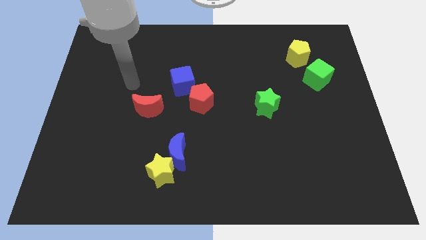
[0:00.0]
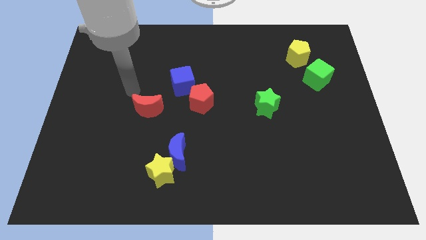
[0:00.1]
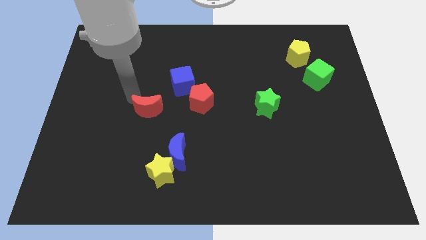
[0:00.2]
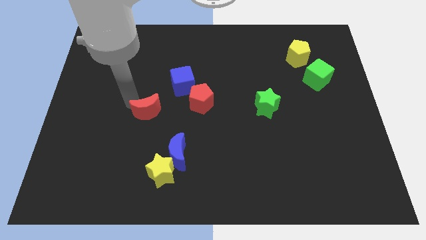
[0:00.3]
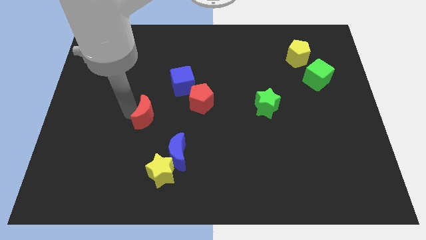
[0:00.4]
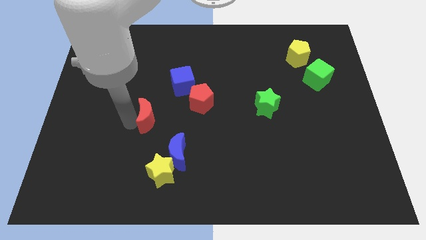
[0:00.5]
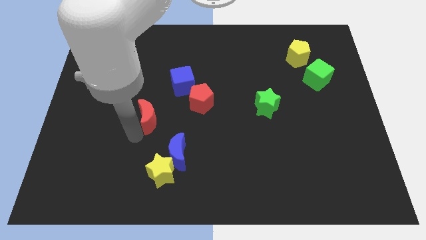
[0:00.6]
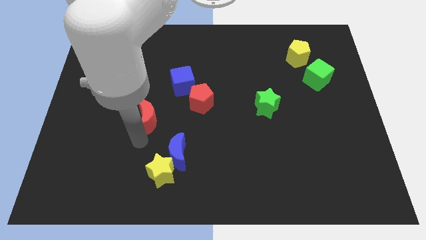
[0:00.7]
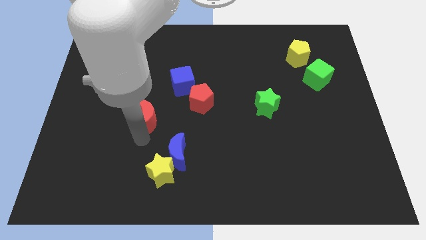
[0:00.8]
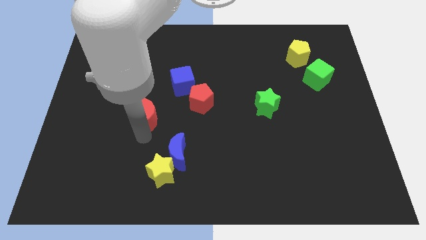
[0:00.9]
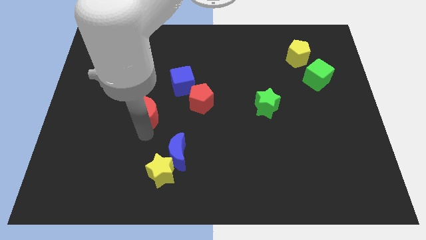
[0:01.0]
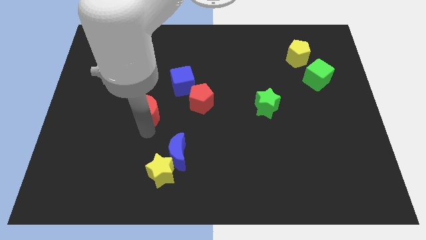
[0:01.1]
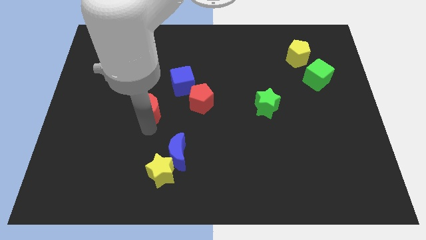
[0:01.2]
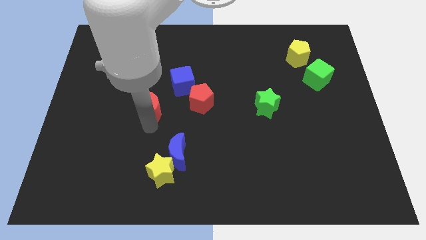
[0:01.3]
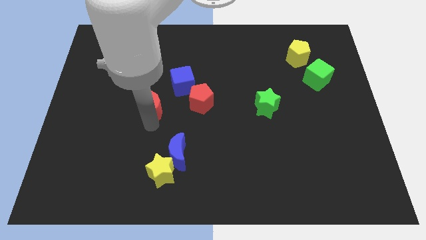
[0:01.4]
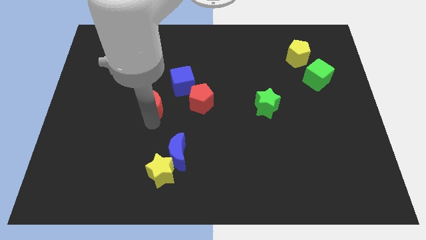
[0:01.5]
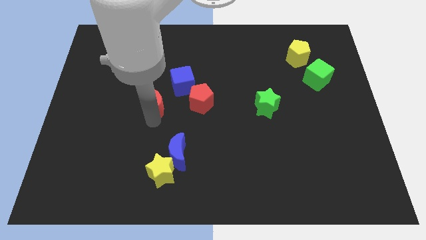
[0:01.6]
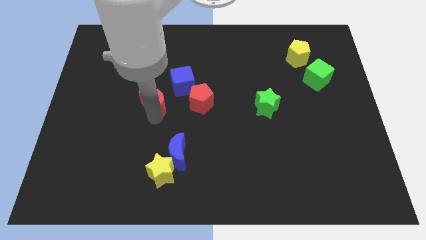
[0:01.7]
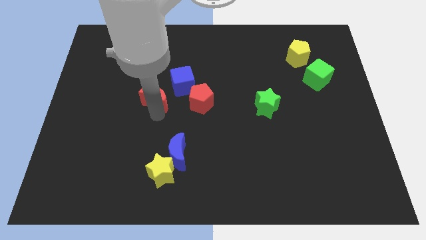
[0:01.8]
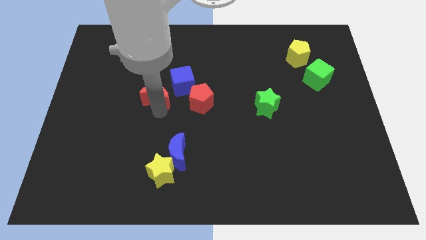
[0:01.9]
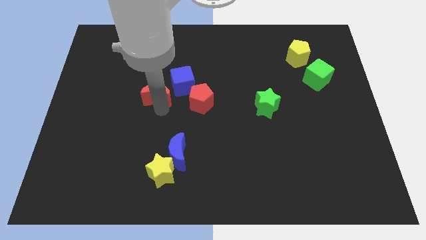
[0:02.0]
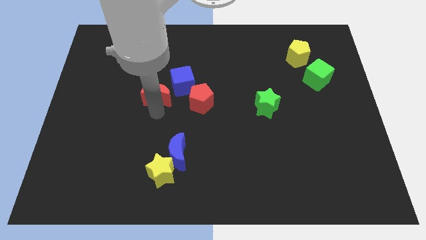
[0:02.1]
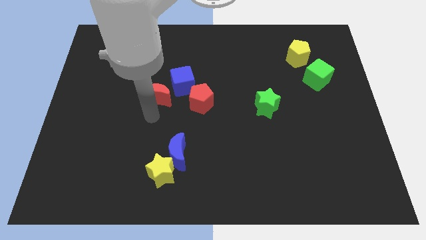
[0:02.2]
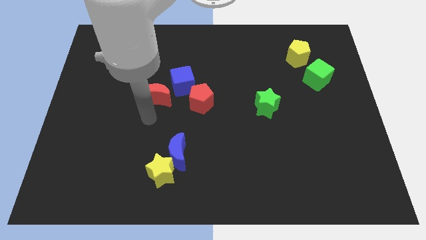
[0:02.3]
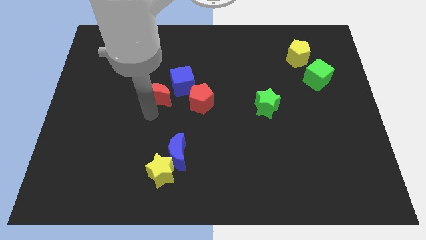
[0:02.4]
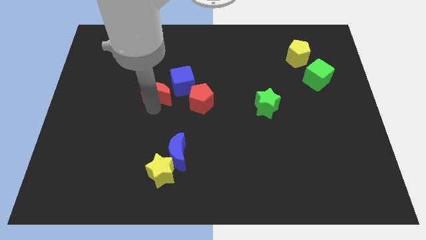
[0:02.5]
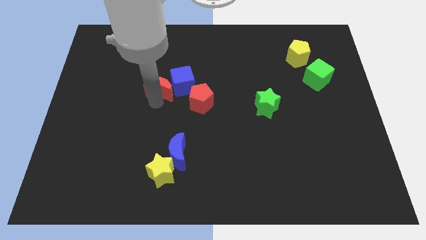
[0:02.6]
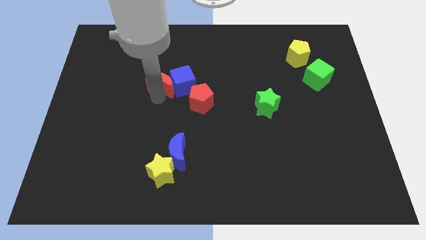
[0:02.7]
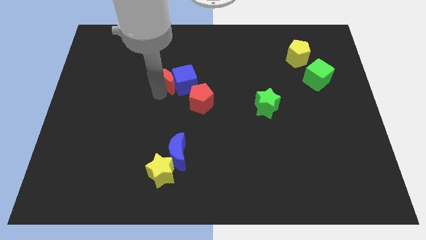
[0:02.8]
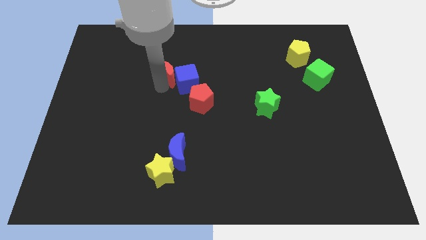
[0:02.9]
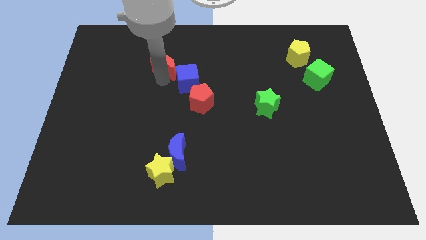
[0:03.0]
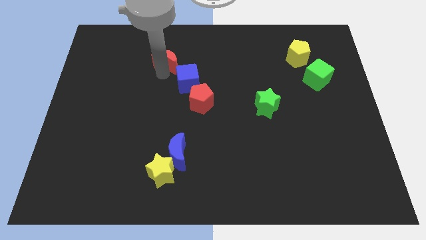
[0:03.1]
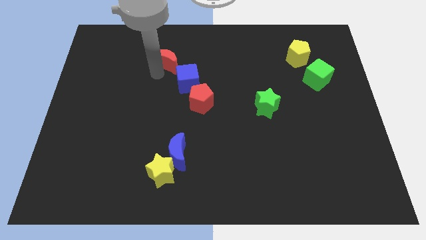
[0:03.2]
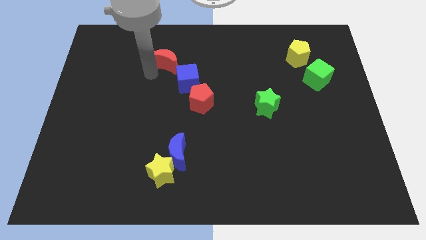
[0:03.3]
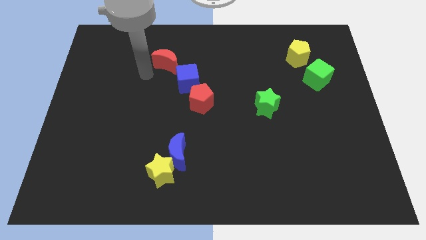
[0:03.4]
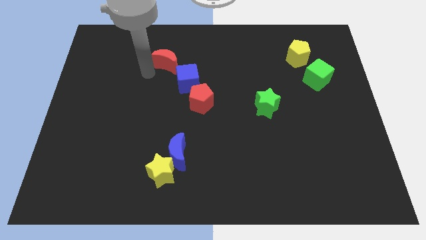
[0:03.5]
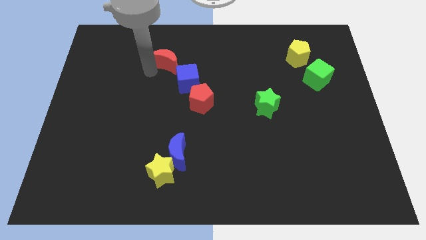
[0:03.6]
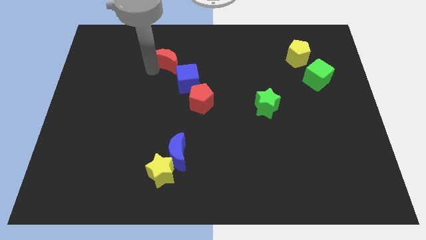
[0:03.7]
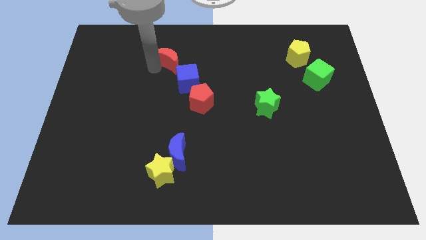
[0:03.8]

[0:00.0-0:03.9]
move the red moon to the top of the blue cube

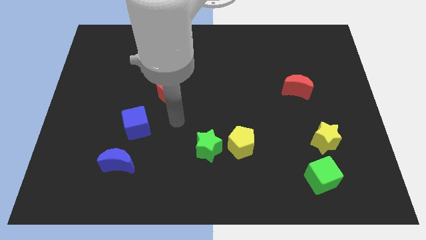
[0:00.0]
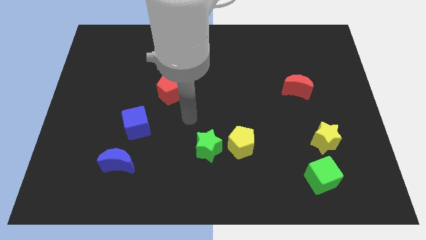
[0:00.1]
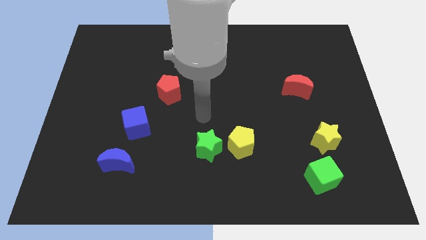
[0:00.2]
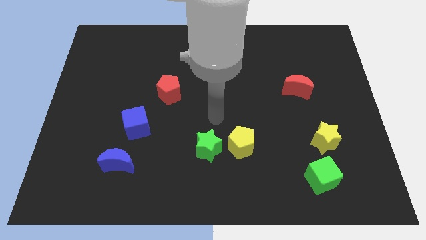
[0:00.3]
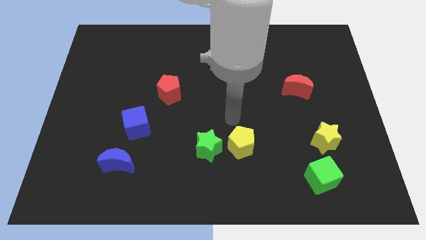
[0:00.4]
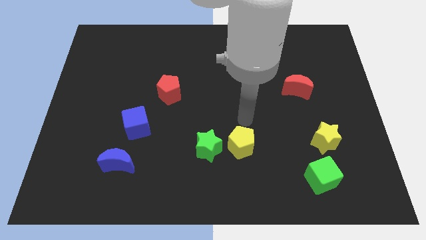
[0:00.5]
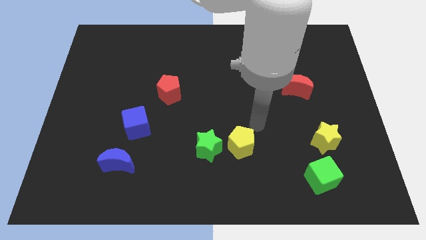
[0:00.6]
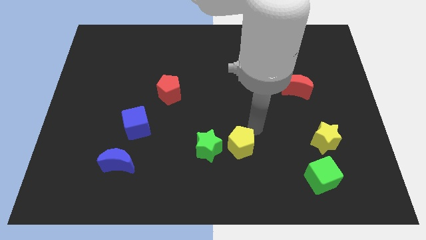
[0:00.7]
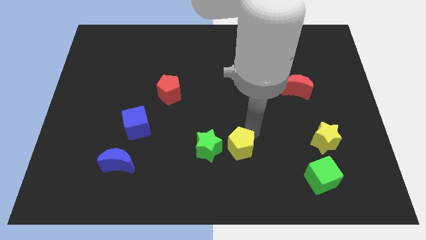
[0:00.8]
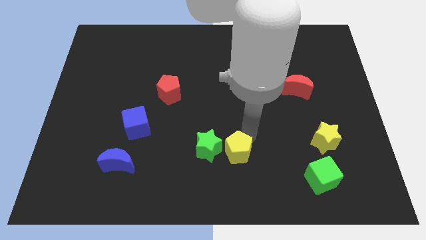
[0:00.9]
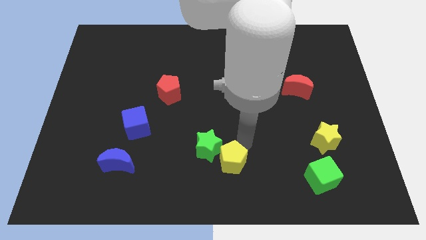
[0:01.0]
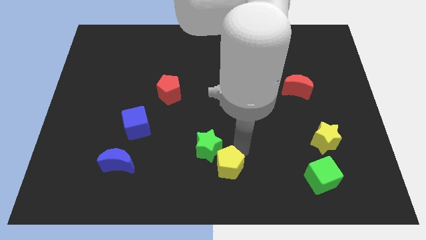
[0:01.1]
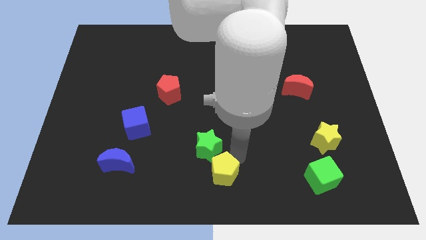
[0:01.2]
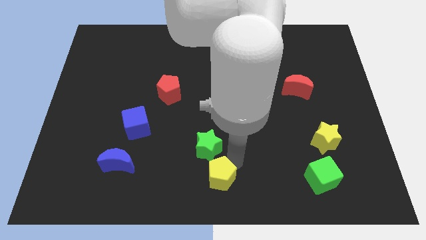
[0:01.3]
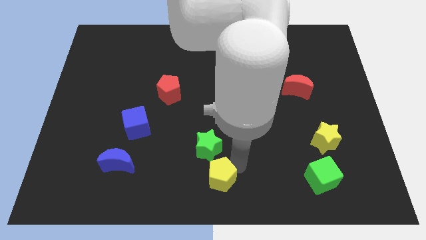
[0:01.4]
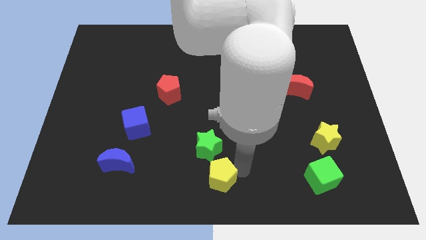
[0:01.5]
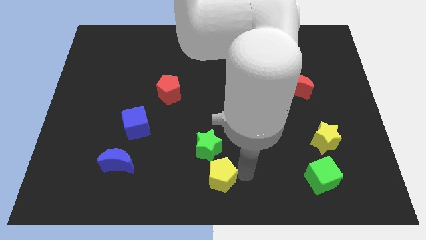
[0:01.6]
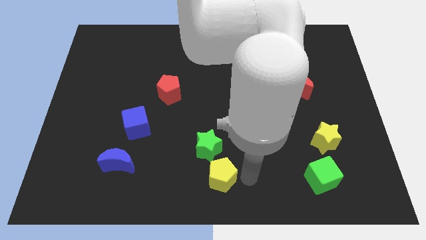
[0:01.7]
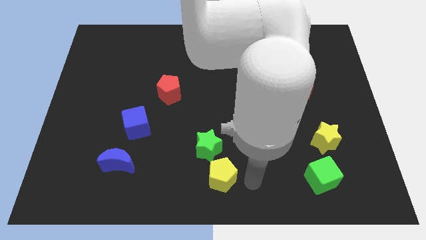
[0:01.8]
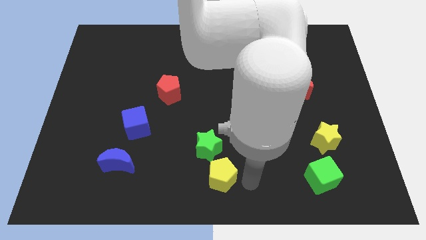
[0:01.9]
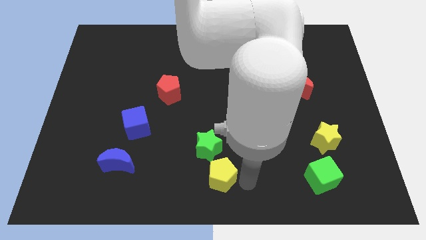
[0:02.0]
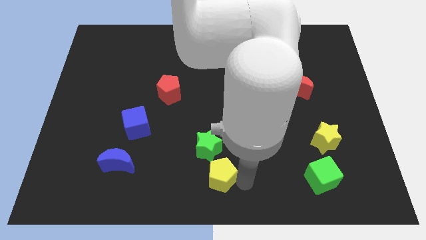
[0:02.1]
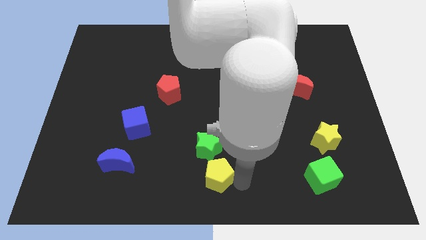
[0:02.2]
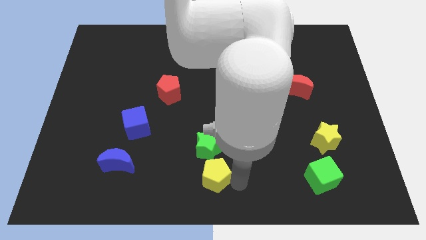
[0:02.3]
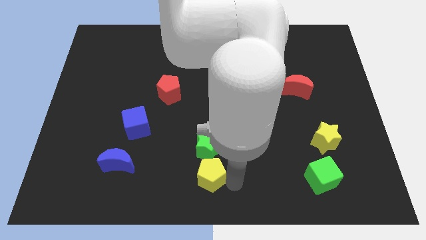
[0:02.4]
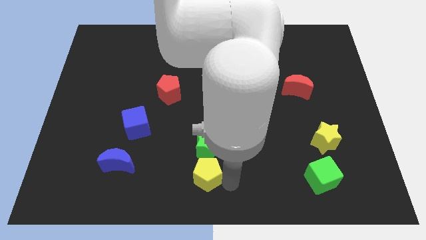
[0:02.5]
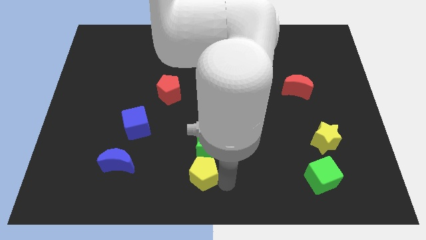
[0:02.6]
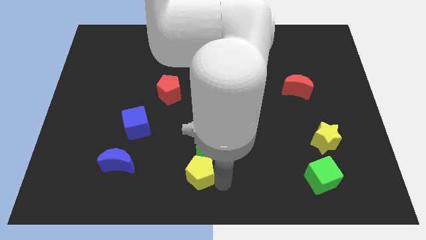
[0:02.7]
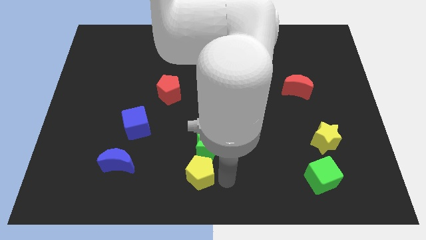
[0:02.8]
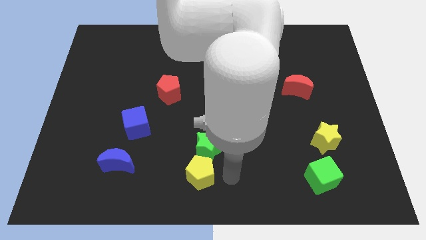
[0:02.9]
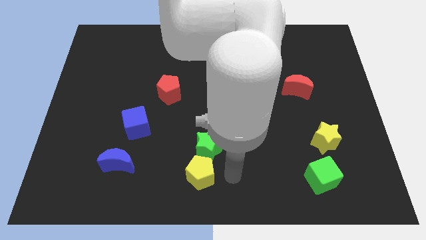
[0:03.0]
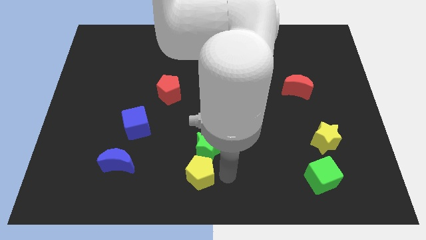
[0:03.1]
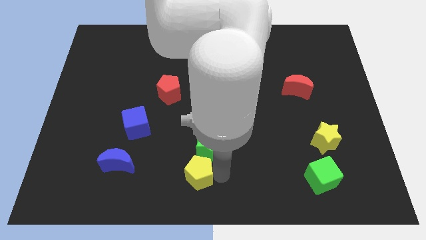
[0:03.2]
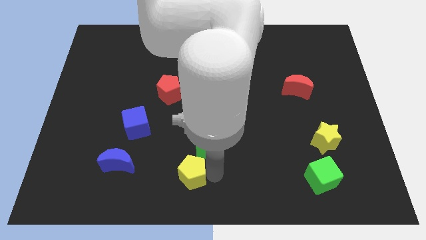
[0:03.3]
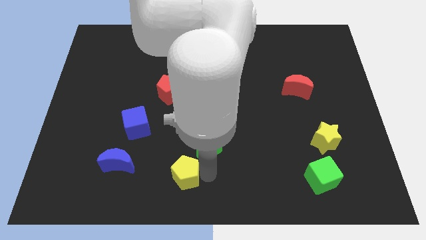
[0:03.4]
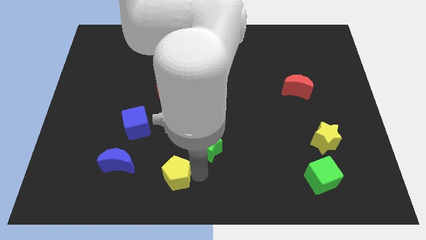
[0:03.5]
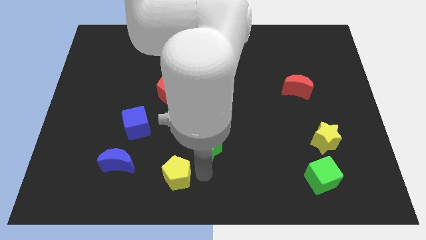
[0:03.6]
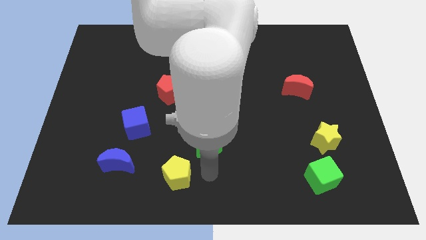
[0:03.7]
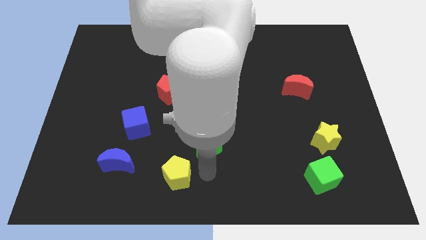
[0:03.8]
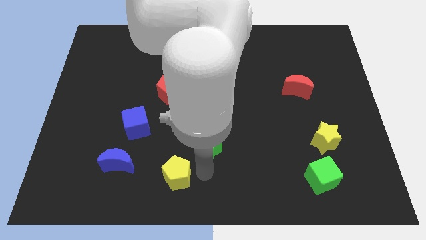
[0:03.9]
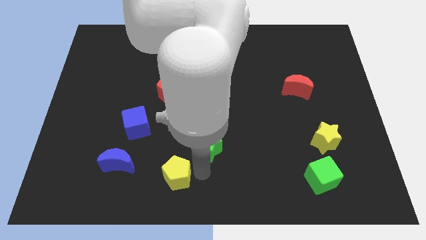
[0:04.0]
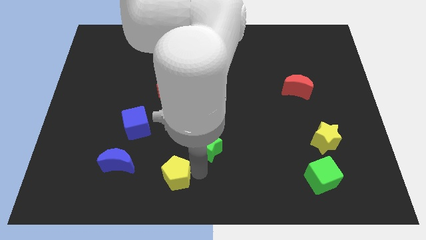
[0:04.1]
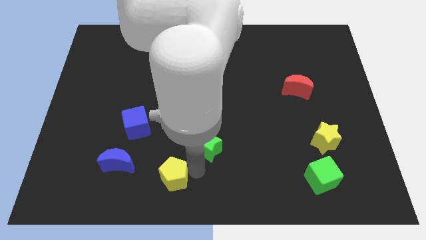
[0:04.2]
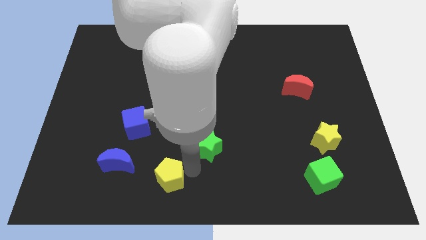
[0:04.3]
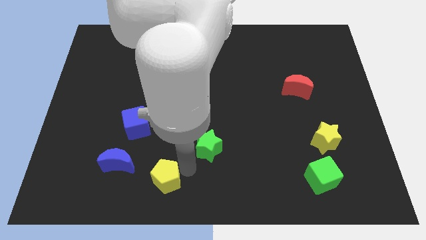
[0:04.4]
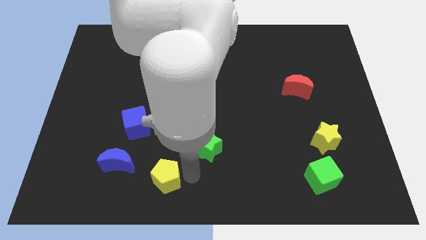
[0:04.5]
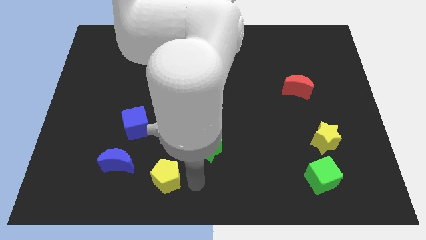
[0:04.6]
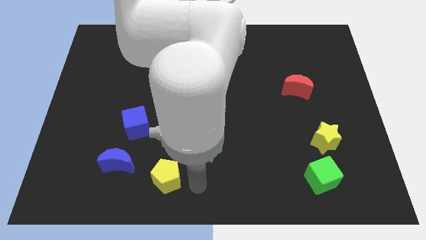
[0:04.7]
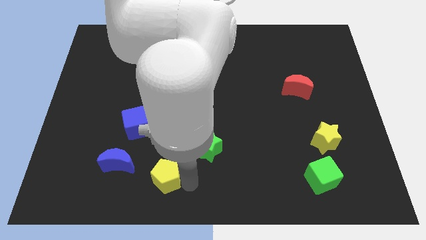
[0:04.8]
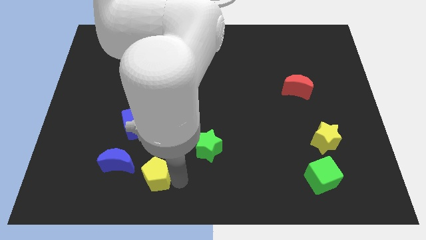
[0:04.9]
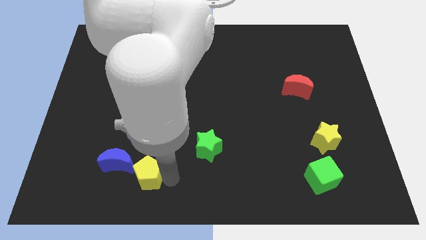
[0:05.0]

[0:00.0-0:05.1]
push the yellow pentagon below the blue cube
